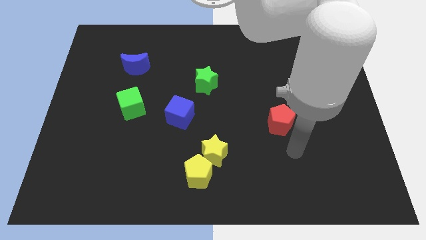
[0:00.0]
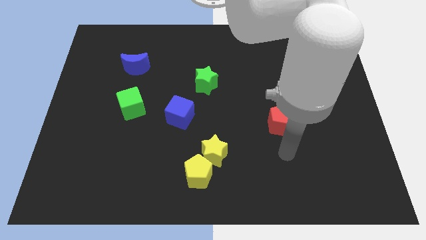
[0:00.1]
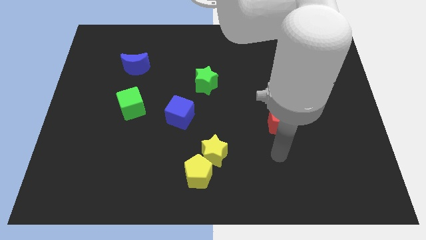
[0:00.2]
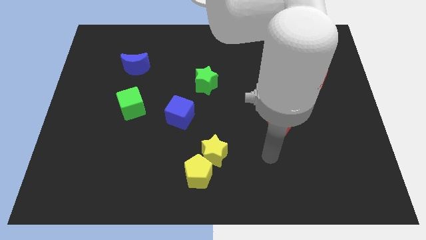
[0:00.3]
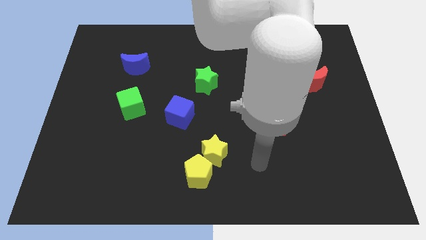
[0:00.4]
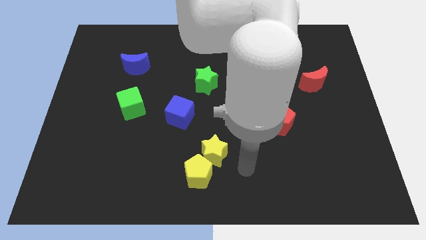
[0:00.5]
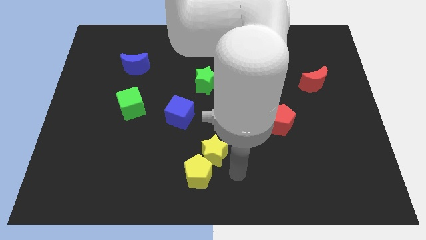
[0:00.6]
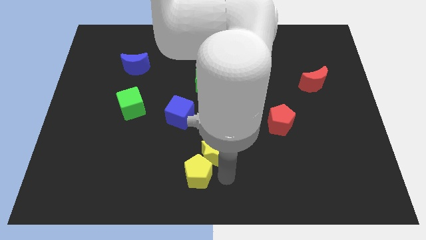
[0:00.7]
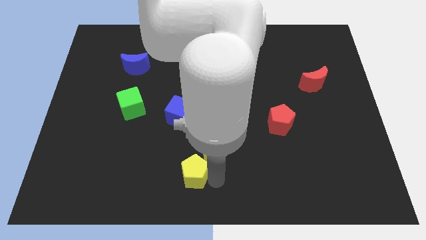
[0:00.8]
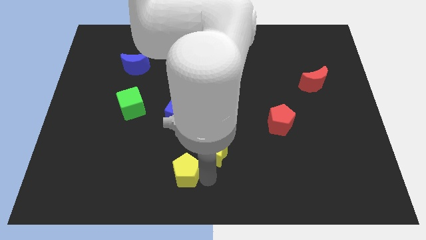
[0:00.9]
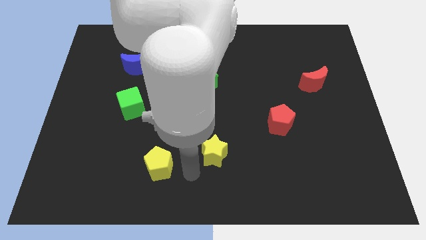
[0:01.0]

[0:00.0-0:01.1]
separate the yellow star from the yellow pentagon

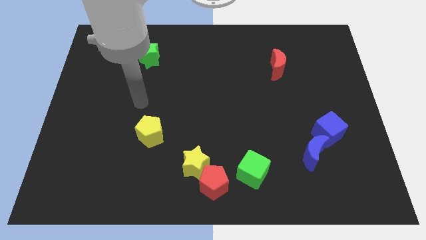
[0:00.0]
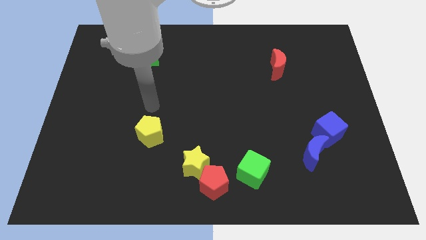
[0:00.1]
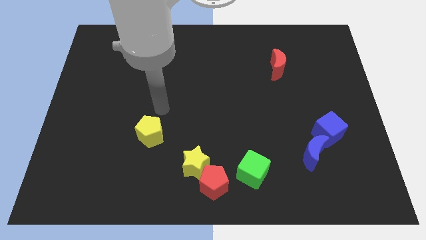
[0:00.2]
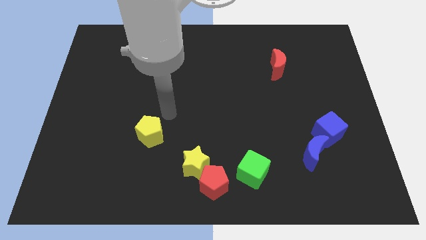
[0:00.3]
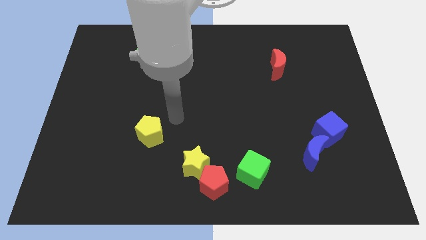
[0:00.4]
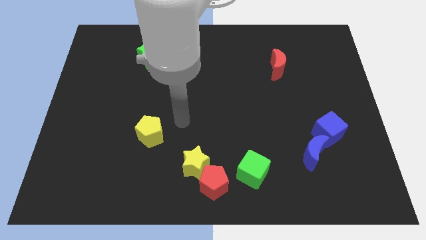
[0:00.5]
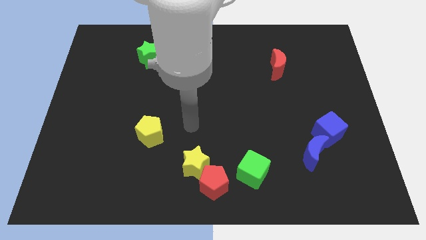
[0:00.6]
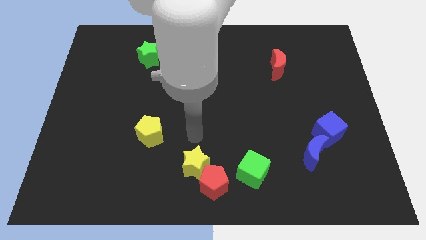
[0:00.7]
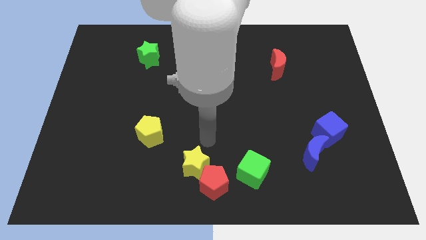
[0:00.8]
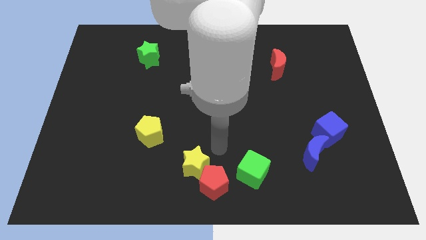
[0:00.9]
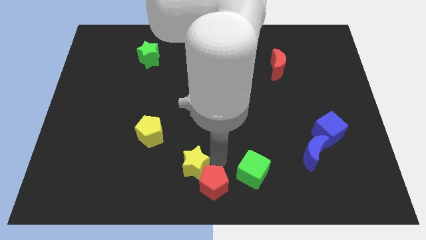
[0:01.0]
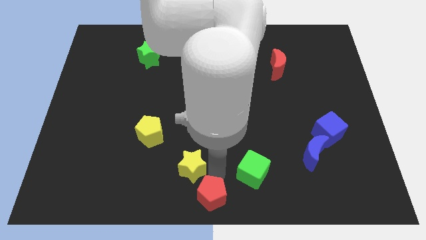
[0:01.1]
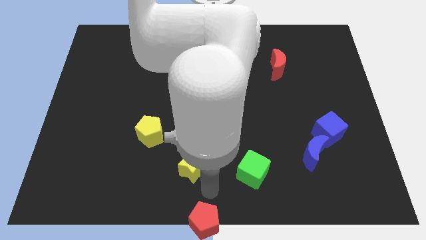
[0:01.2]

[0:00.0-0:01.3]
pull the yellow star apart from the red pentagon

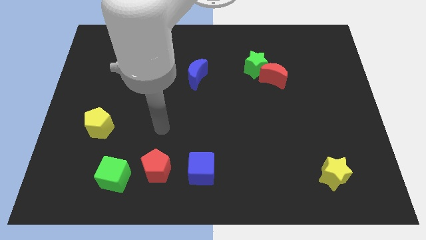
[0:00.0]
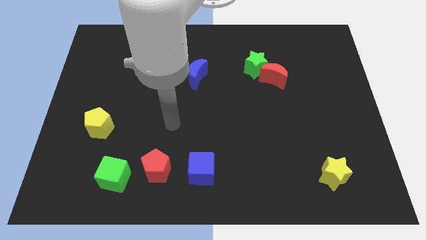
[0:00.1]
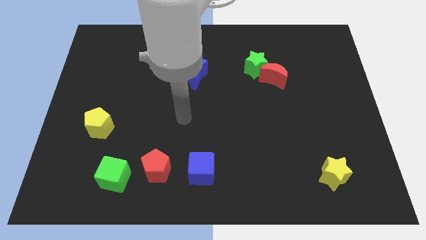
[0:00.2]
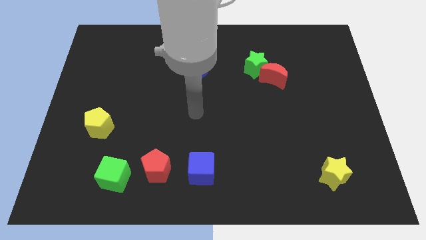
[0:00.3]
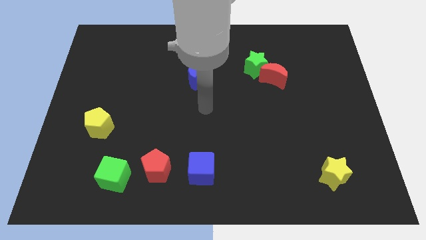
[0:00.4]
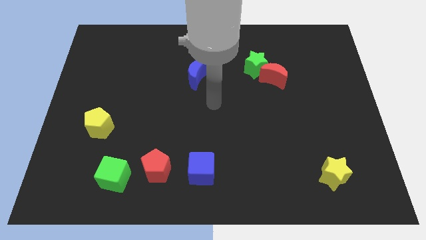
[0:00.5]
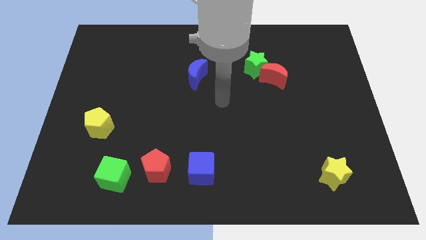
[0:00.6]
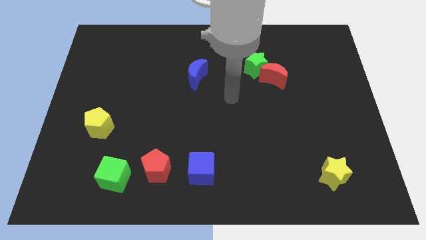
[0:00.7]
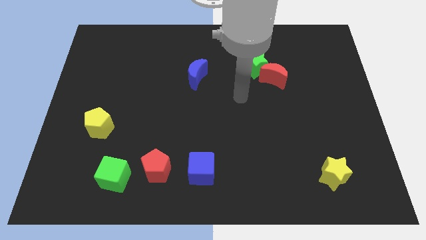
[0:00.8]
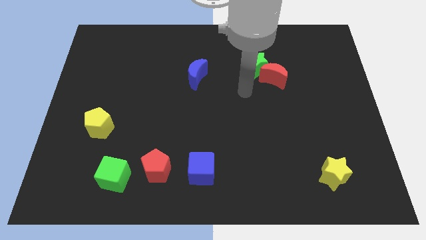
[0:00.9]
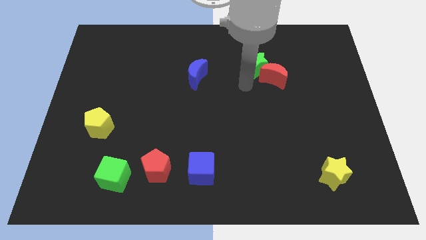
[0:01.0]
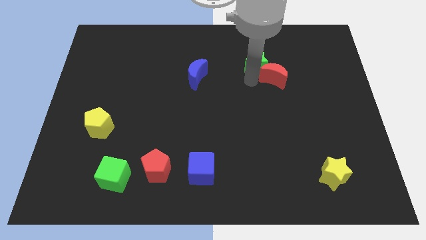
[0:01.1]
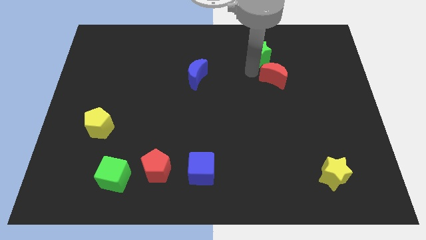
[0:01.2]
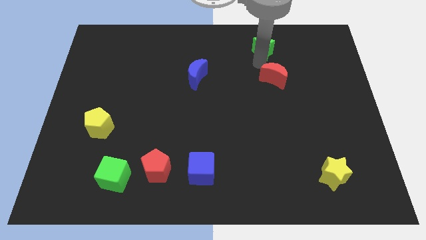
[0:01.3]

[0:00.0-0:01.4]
separate the red moon from the green star

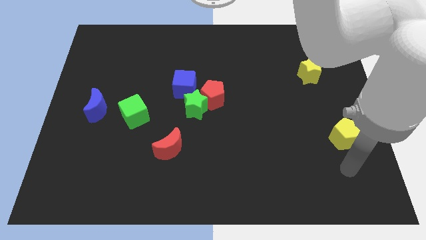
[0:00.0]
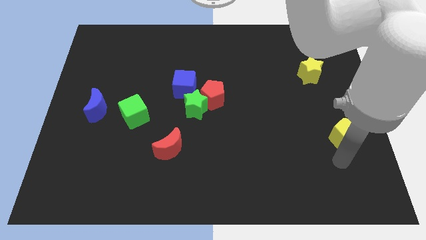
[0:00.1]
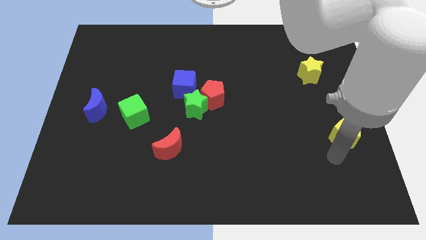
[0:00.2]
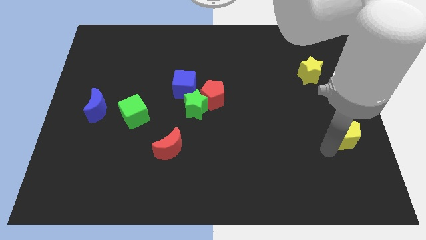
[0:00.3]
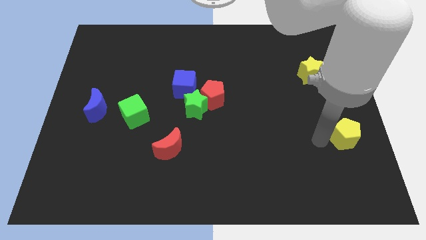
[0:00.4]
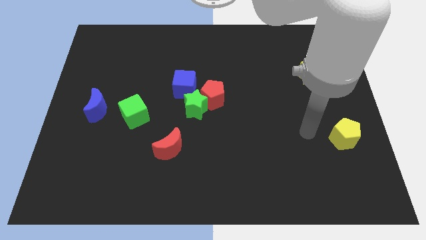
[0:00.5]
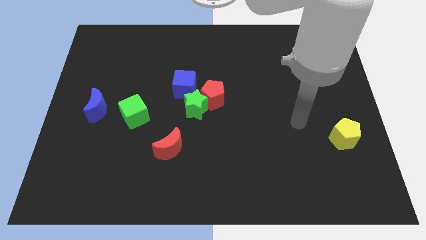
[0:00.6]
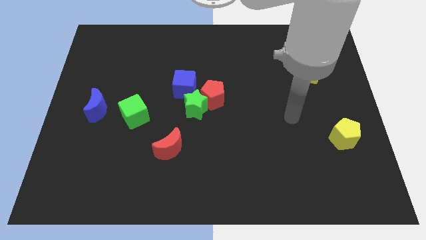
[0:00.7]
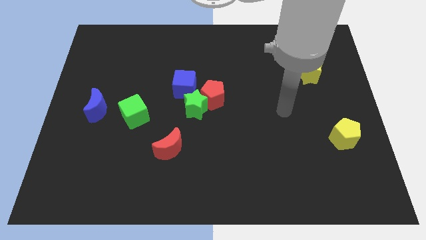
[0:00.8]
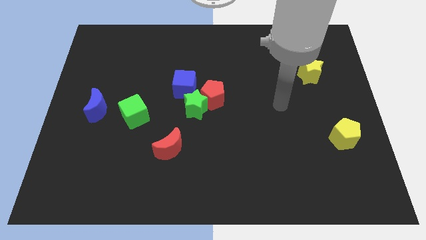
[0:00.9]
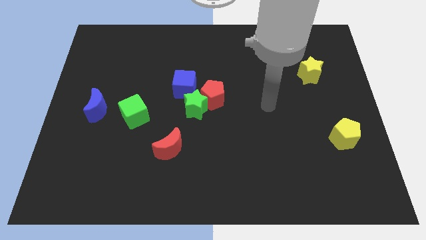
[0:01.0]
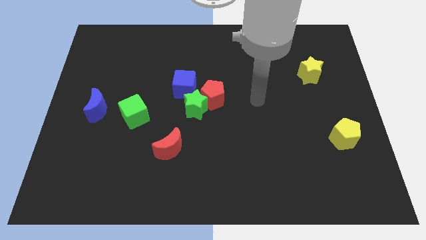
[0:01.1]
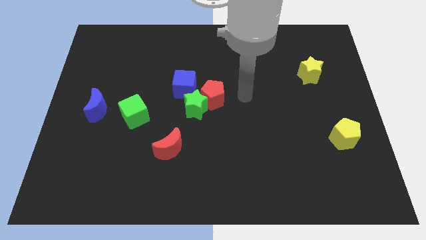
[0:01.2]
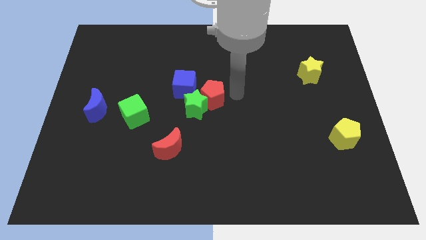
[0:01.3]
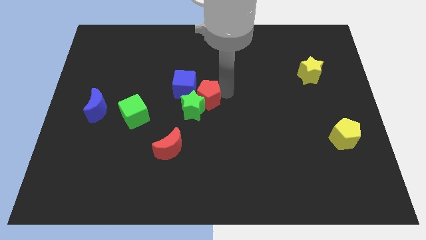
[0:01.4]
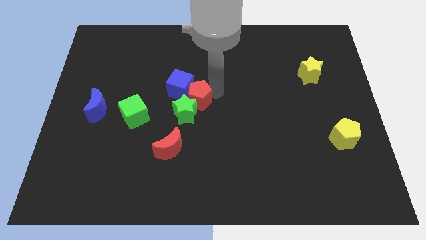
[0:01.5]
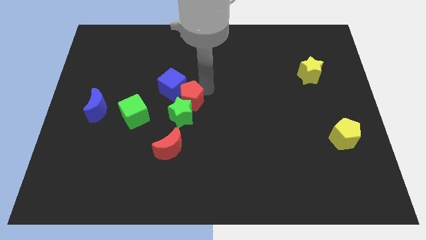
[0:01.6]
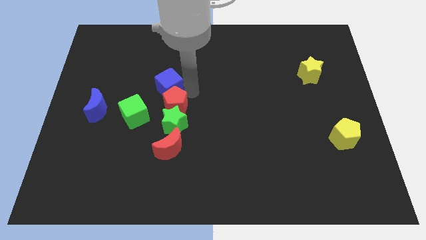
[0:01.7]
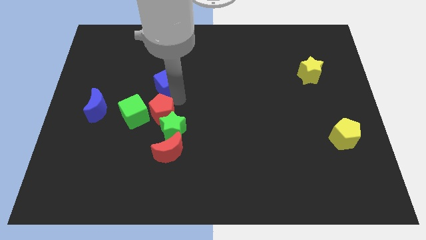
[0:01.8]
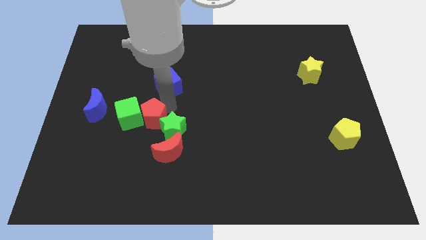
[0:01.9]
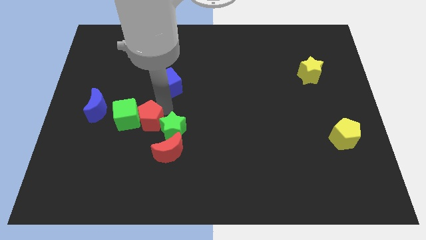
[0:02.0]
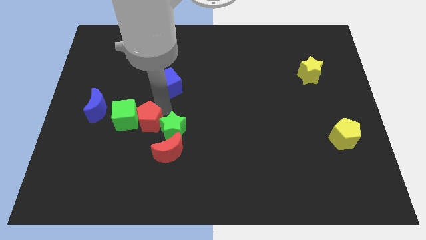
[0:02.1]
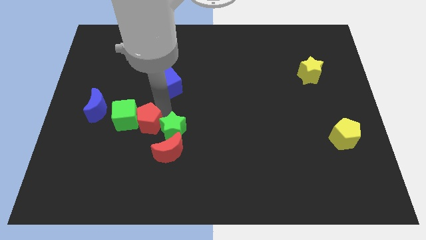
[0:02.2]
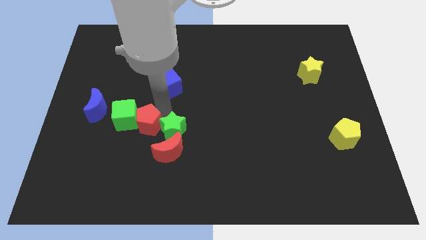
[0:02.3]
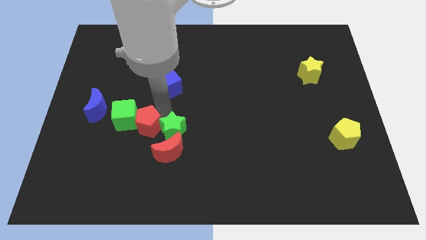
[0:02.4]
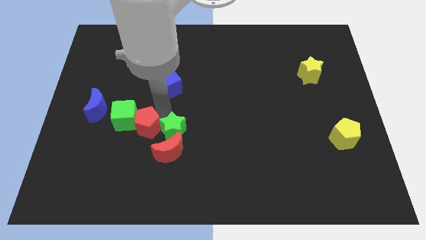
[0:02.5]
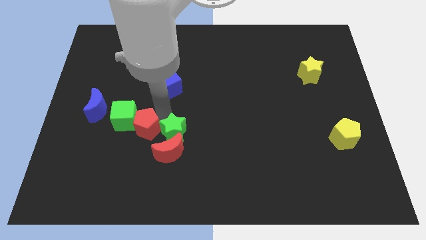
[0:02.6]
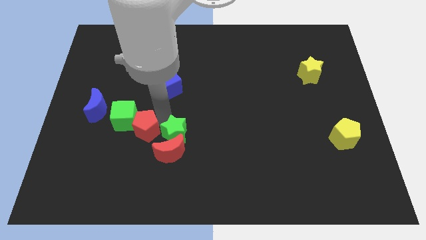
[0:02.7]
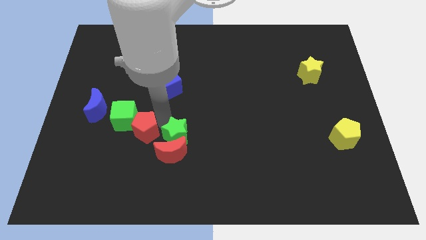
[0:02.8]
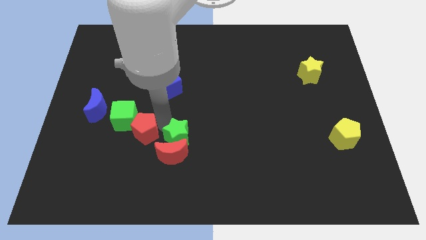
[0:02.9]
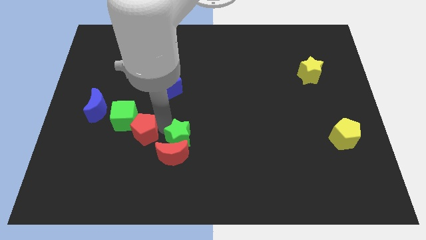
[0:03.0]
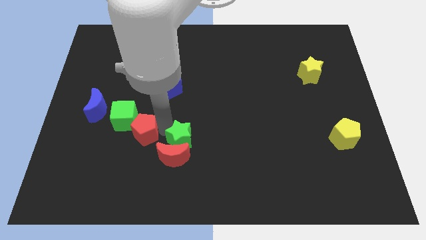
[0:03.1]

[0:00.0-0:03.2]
separate the green star from the red pentagon and blue cube

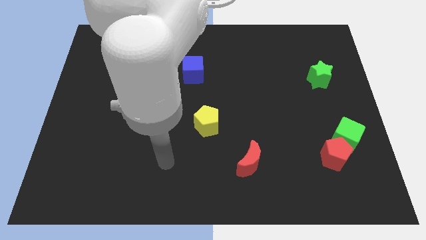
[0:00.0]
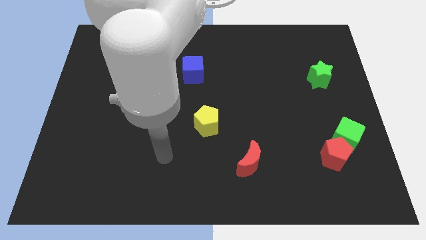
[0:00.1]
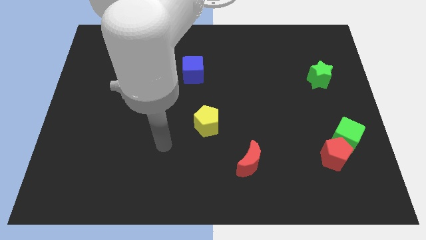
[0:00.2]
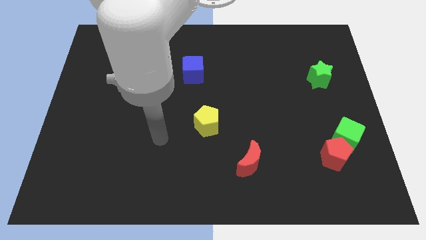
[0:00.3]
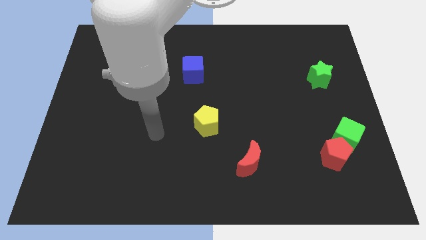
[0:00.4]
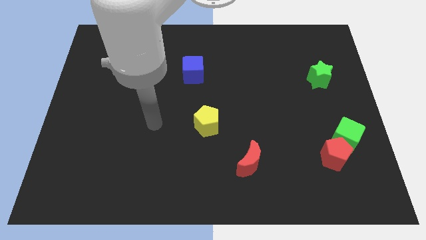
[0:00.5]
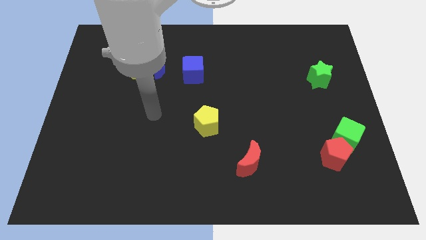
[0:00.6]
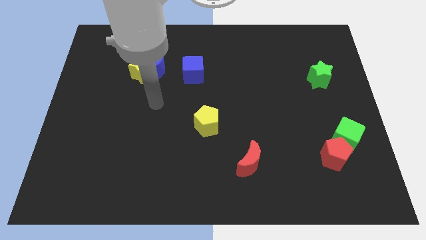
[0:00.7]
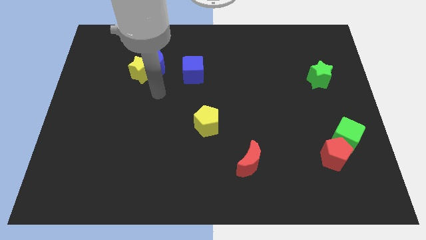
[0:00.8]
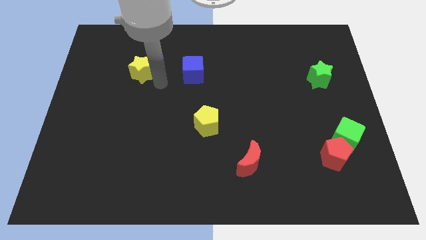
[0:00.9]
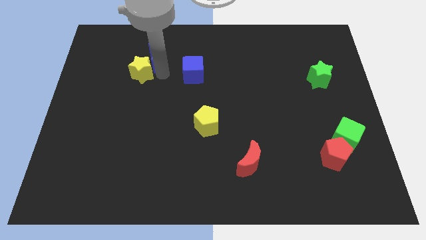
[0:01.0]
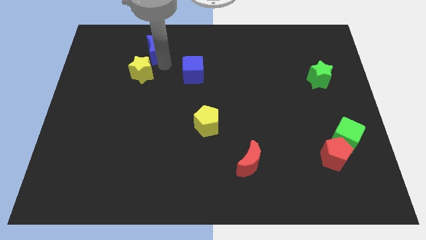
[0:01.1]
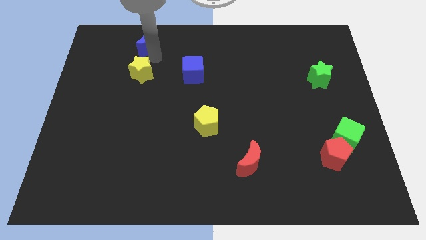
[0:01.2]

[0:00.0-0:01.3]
separate the yellow star from the blue moon

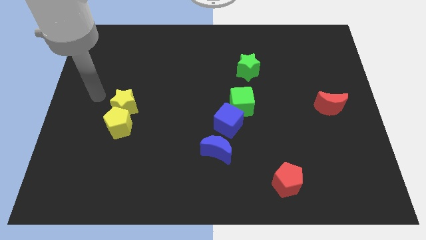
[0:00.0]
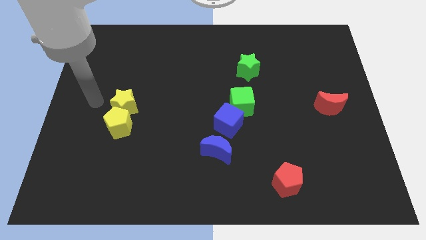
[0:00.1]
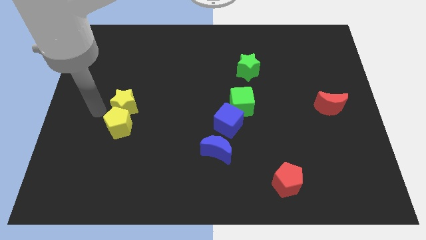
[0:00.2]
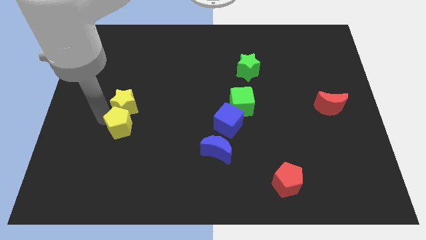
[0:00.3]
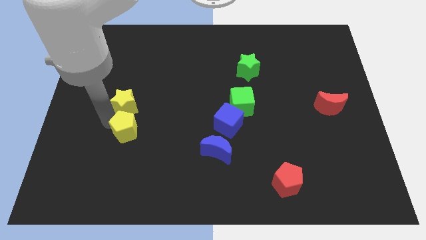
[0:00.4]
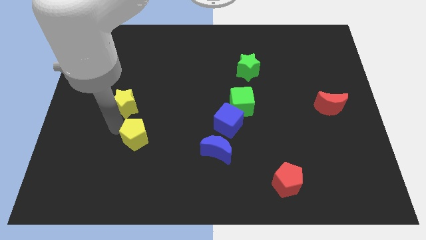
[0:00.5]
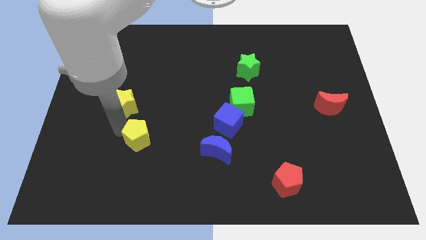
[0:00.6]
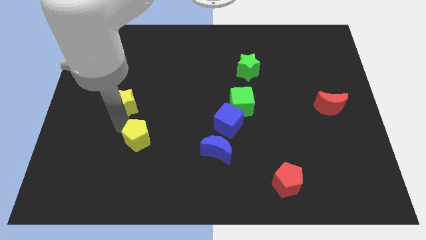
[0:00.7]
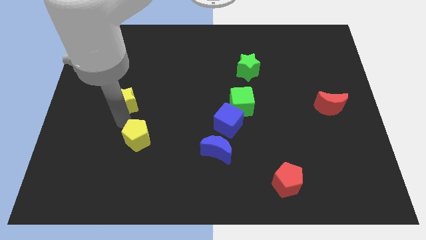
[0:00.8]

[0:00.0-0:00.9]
pull the yellow star apart from the yellow pentagon
